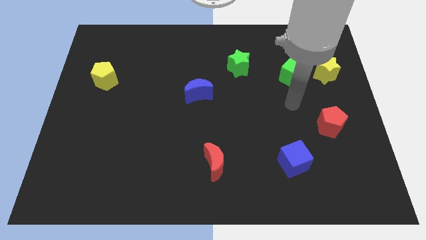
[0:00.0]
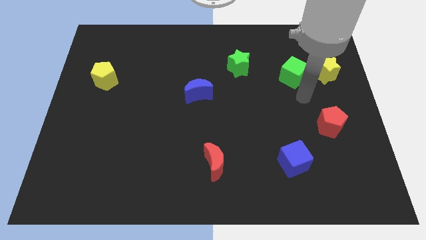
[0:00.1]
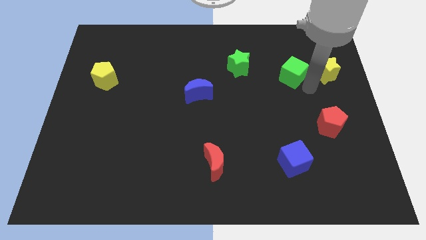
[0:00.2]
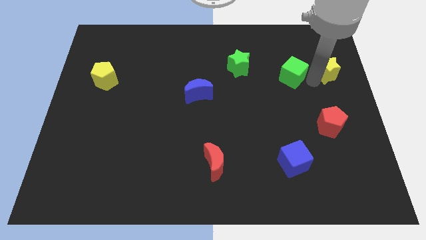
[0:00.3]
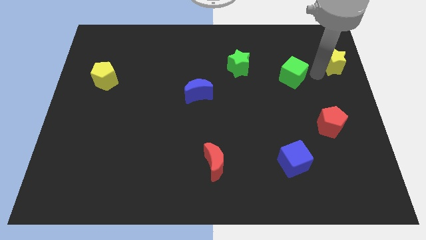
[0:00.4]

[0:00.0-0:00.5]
move the green cube away from the yellow star

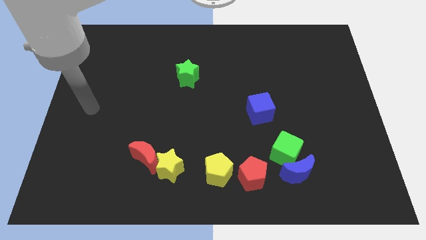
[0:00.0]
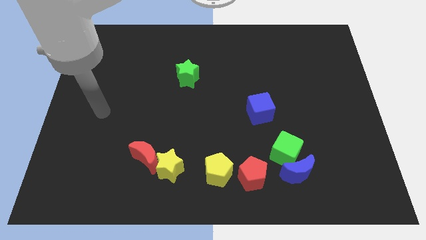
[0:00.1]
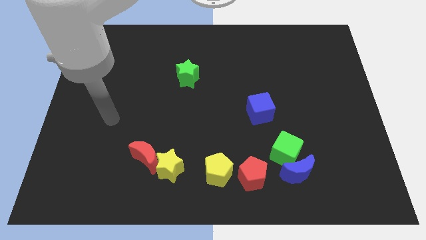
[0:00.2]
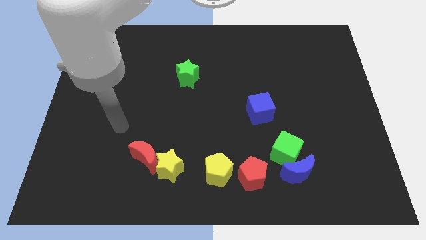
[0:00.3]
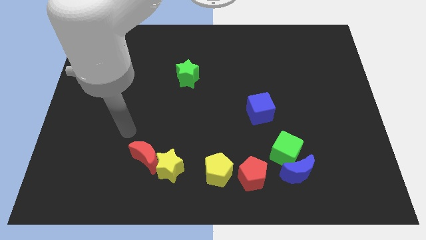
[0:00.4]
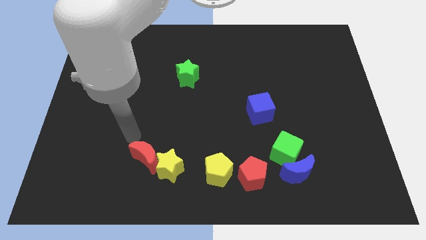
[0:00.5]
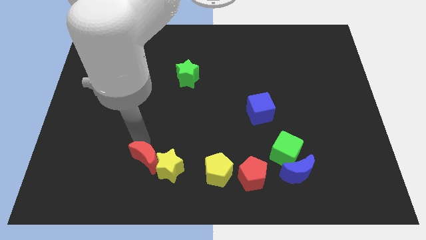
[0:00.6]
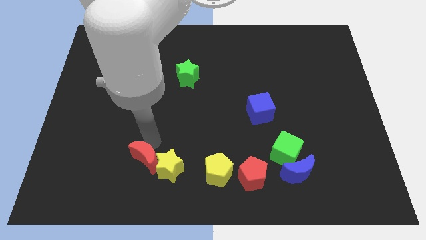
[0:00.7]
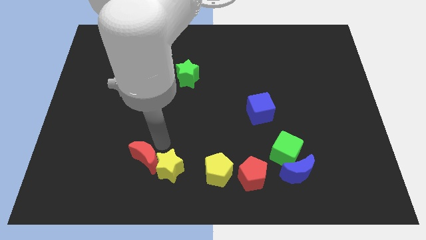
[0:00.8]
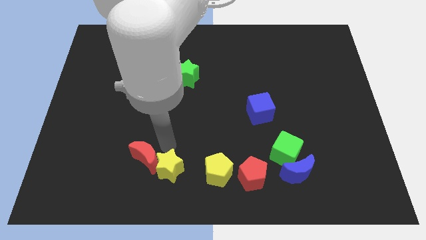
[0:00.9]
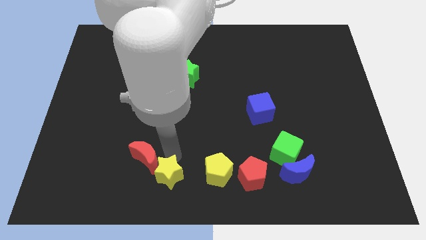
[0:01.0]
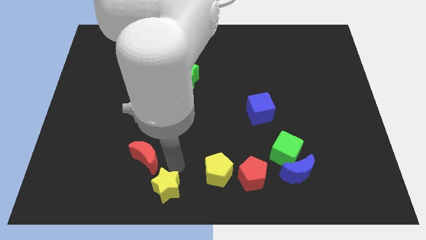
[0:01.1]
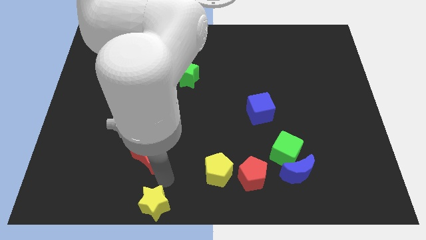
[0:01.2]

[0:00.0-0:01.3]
pull the red moon apart from the yellow star

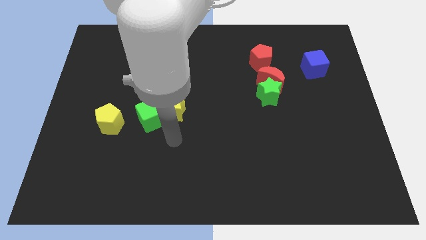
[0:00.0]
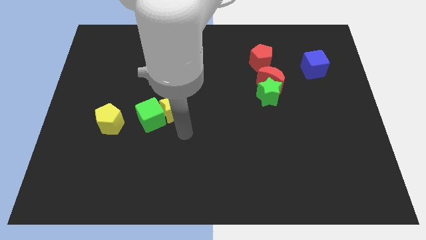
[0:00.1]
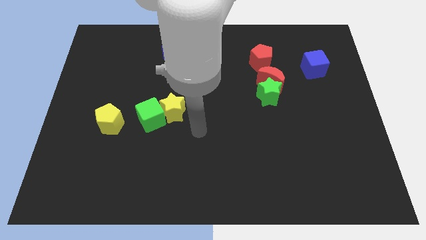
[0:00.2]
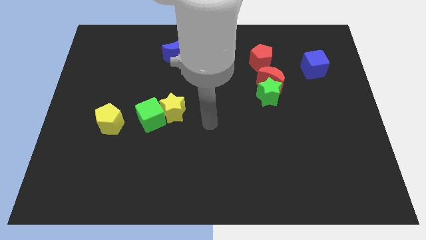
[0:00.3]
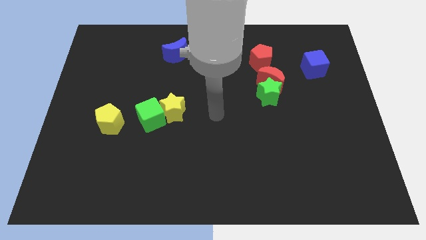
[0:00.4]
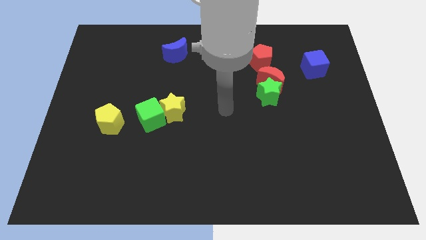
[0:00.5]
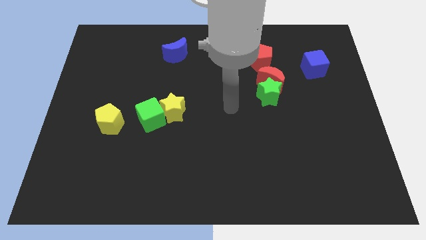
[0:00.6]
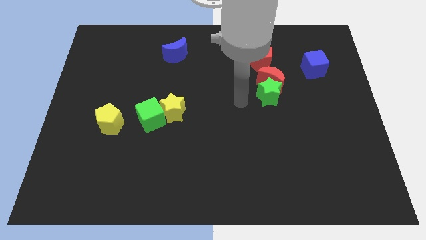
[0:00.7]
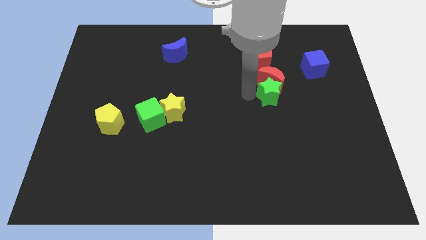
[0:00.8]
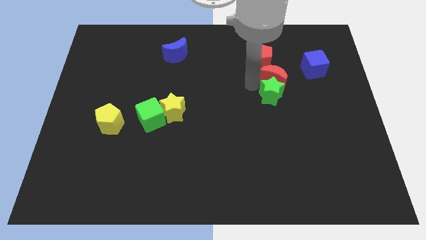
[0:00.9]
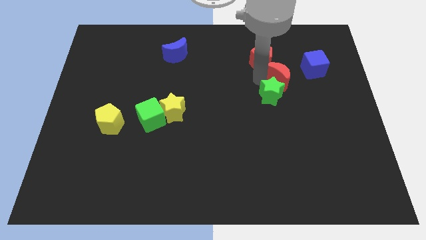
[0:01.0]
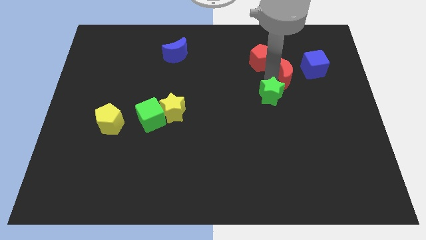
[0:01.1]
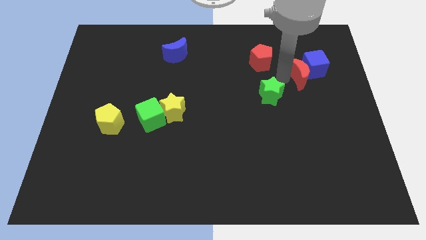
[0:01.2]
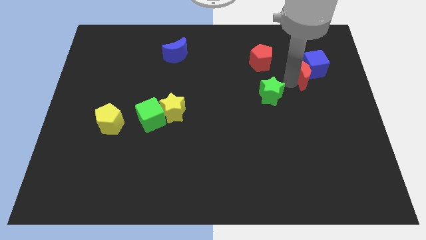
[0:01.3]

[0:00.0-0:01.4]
pull the green star apart from the red moon

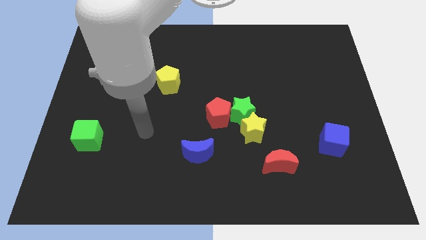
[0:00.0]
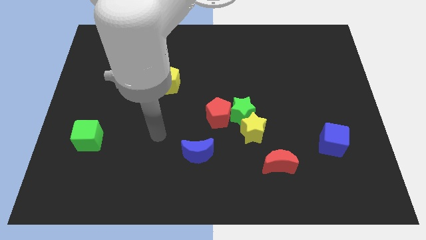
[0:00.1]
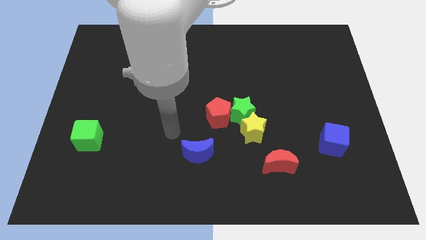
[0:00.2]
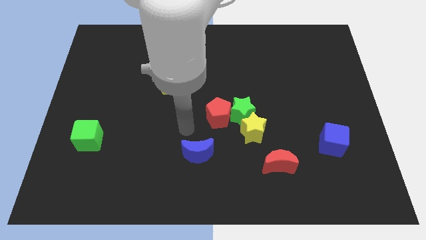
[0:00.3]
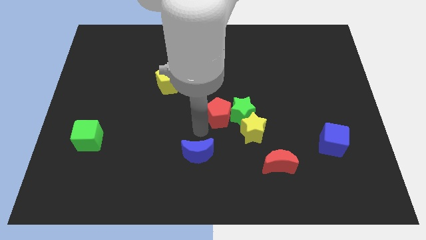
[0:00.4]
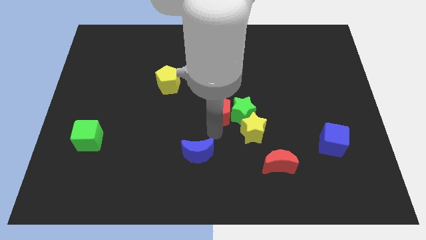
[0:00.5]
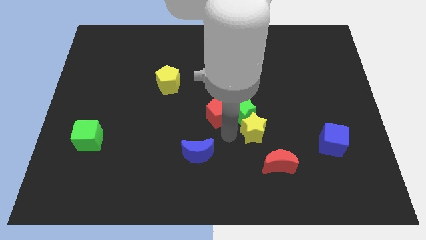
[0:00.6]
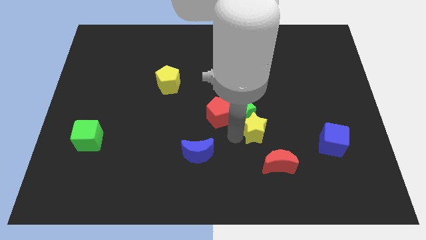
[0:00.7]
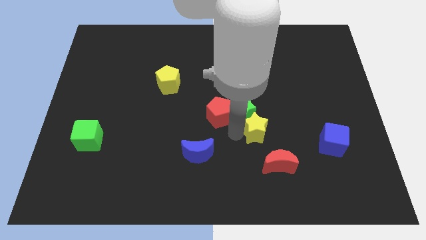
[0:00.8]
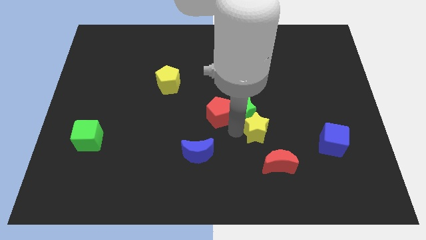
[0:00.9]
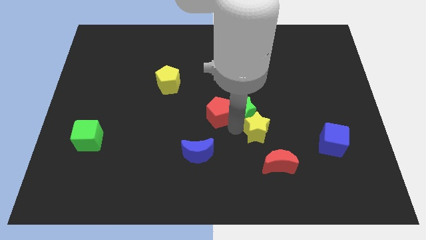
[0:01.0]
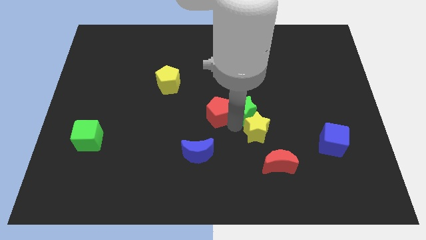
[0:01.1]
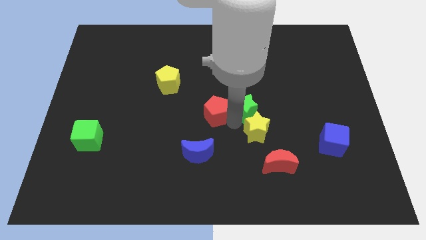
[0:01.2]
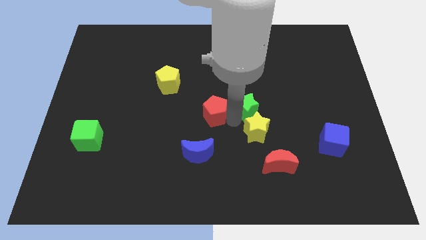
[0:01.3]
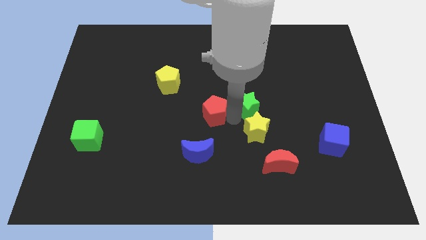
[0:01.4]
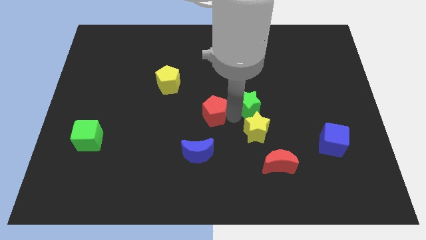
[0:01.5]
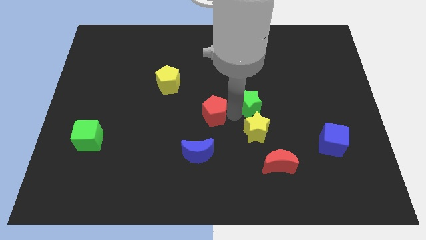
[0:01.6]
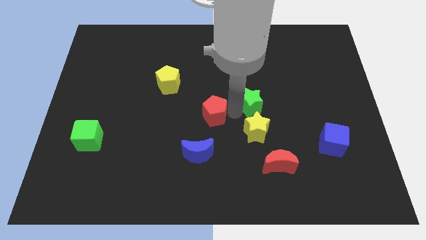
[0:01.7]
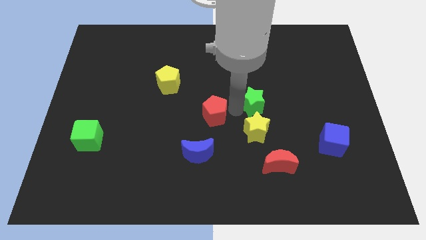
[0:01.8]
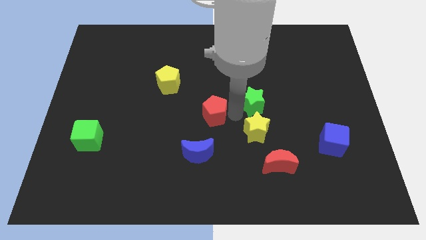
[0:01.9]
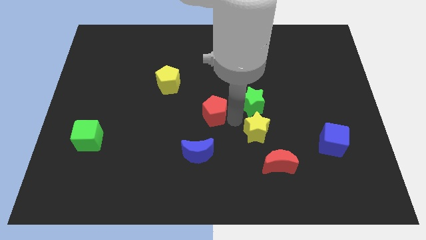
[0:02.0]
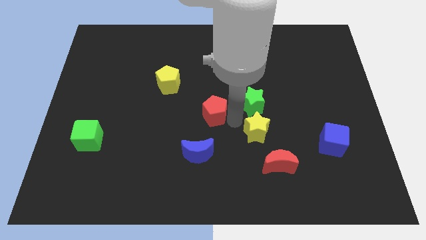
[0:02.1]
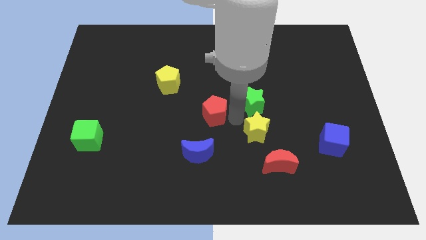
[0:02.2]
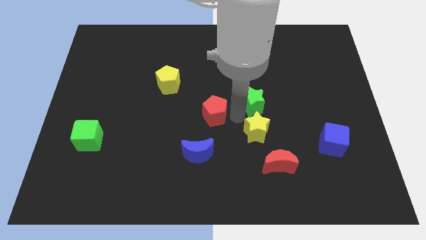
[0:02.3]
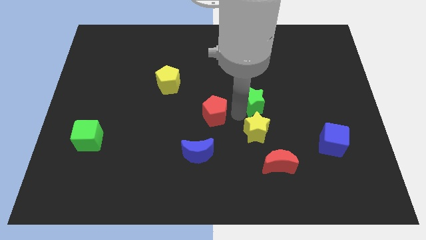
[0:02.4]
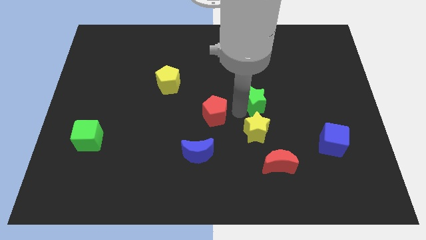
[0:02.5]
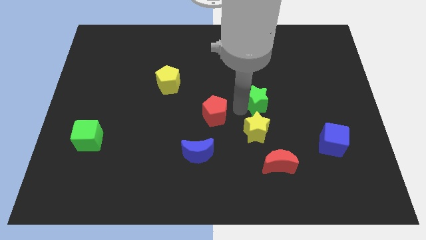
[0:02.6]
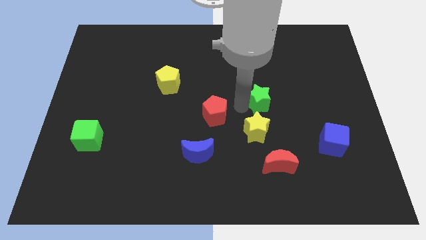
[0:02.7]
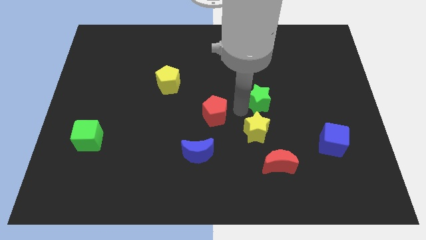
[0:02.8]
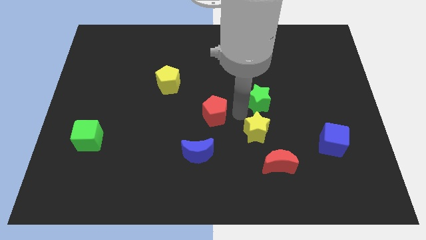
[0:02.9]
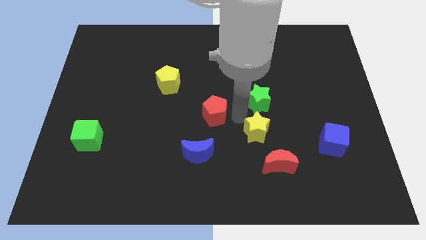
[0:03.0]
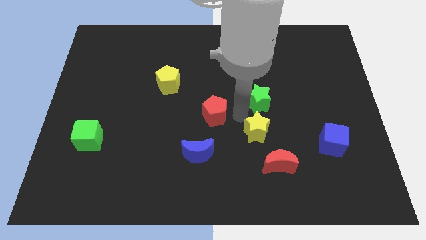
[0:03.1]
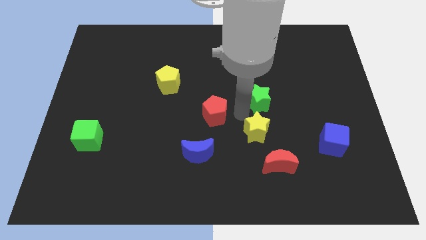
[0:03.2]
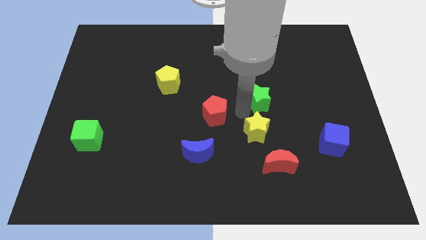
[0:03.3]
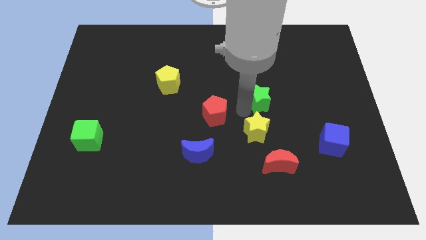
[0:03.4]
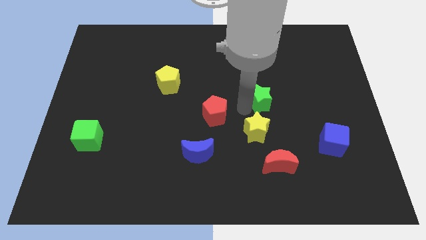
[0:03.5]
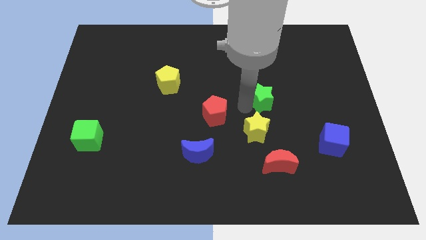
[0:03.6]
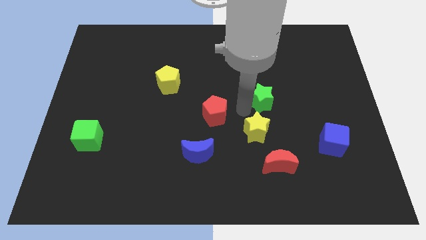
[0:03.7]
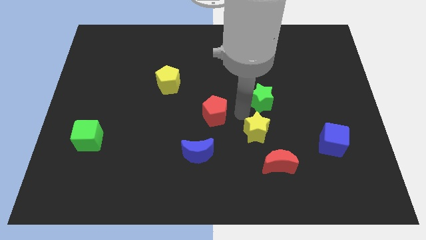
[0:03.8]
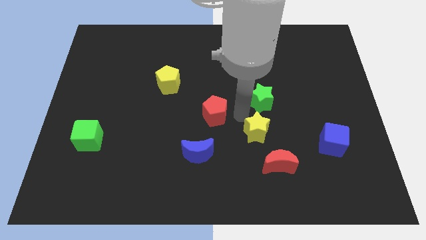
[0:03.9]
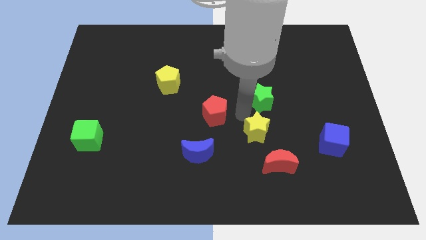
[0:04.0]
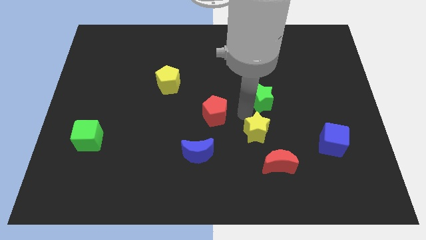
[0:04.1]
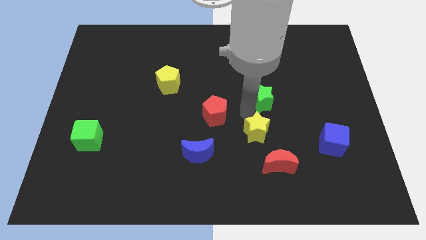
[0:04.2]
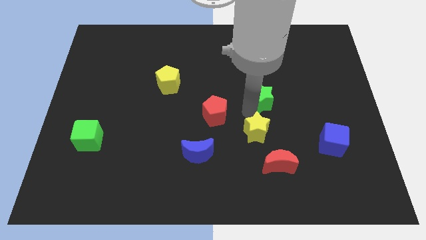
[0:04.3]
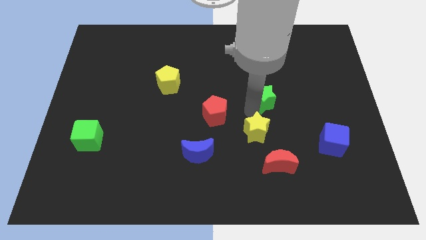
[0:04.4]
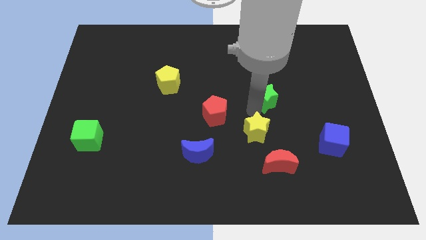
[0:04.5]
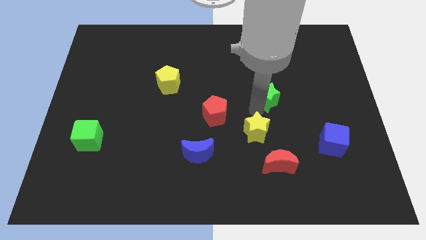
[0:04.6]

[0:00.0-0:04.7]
pull the green star apart from the yellow star and red pentagon

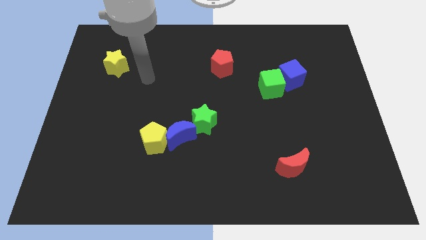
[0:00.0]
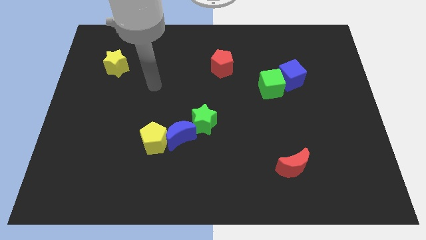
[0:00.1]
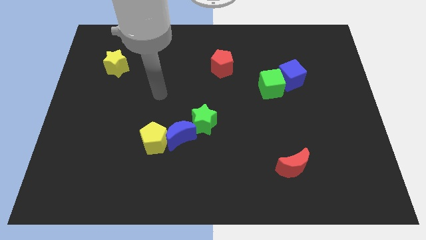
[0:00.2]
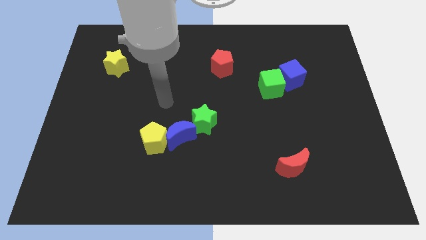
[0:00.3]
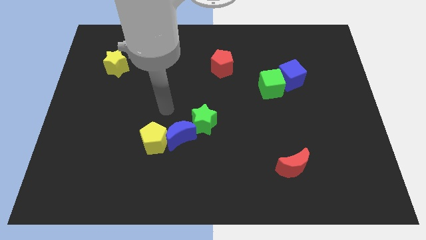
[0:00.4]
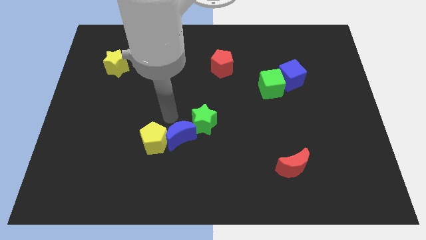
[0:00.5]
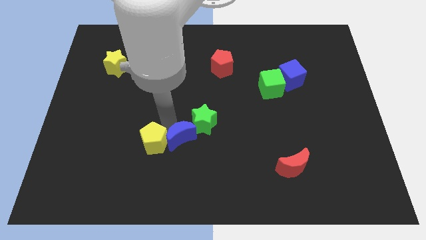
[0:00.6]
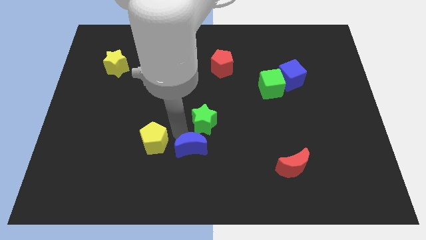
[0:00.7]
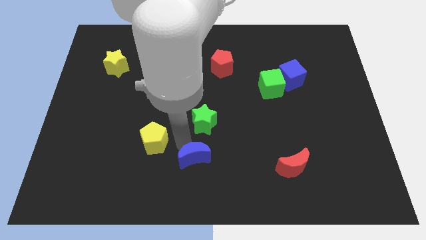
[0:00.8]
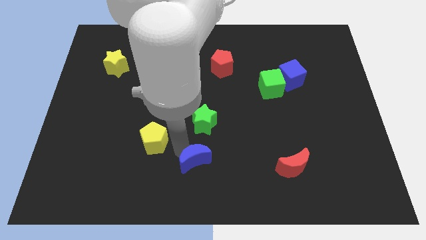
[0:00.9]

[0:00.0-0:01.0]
pull the yellow pentagon apart from the blue moon

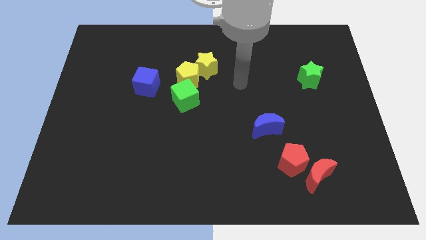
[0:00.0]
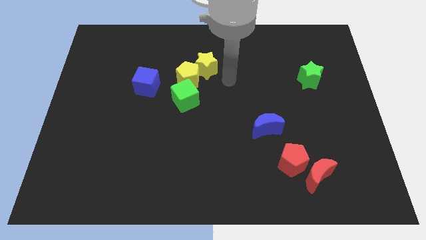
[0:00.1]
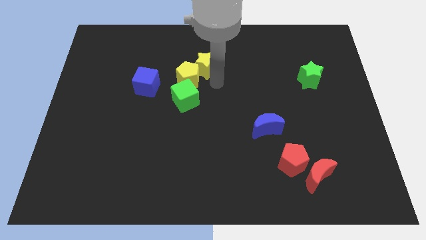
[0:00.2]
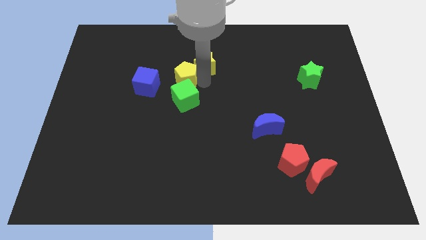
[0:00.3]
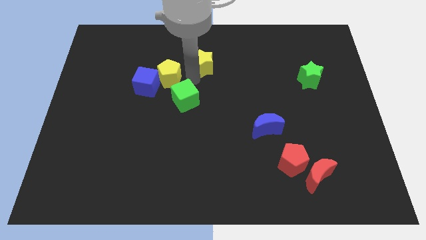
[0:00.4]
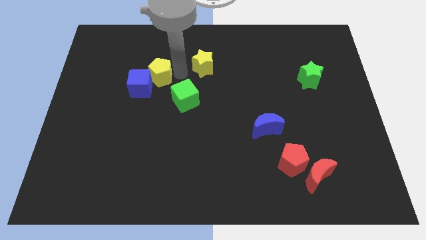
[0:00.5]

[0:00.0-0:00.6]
move the yellow star away from the yellow pentagon
